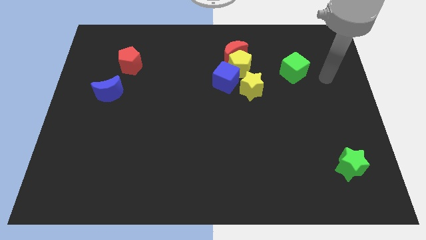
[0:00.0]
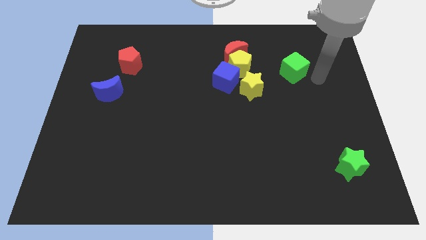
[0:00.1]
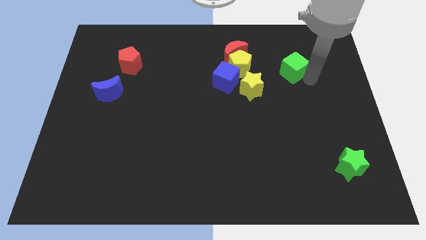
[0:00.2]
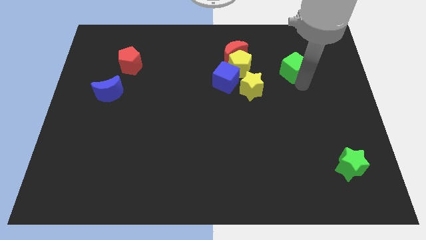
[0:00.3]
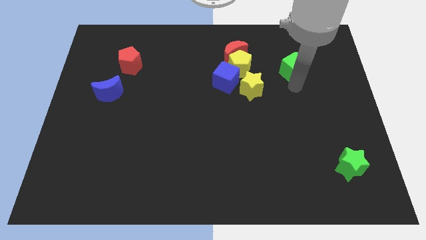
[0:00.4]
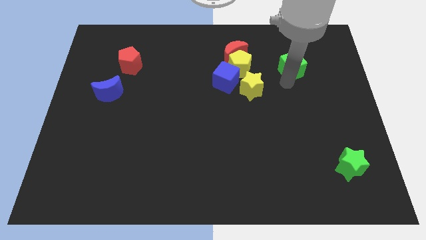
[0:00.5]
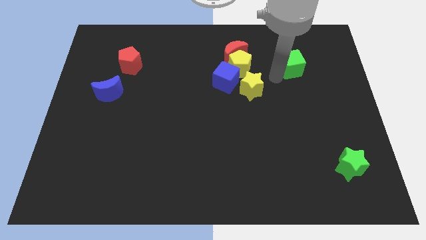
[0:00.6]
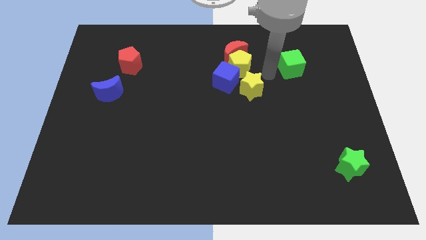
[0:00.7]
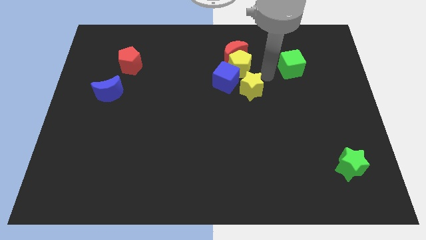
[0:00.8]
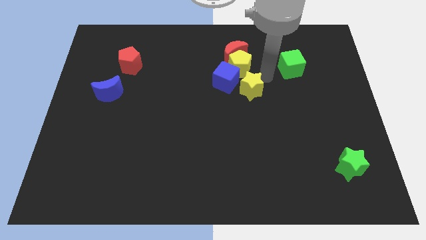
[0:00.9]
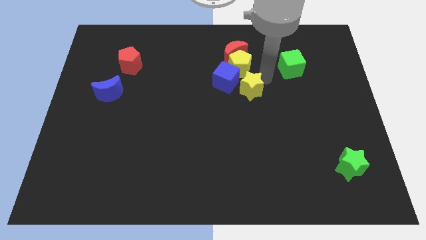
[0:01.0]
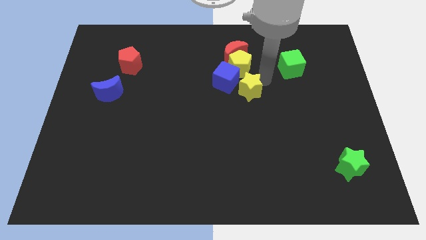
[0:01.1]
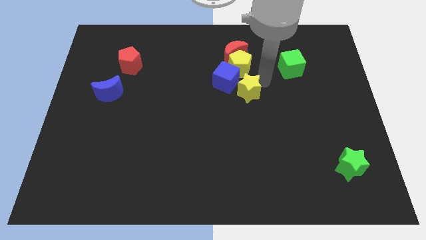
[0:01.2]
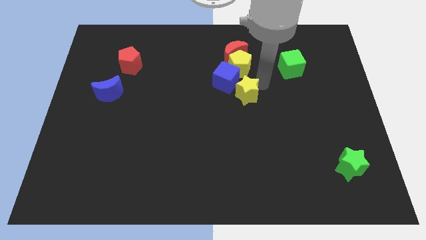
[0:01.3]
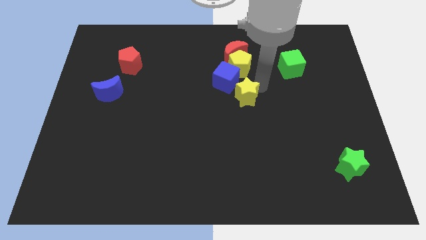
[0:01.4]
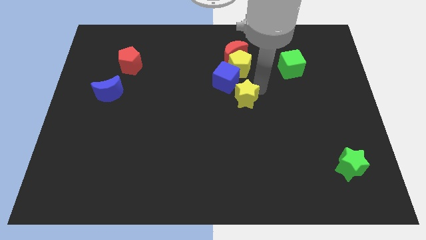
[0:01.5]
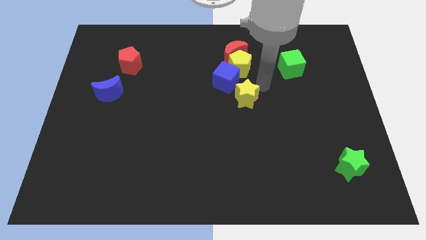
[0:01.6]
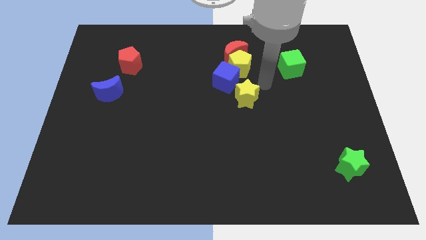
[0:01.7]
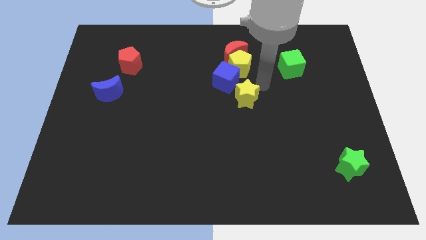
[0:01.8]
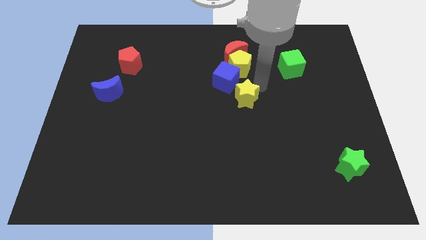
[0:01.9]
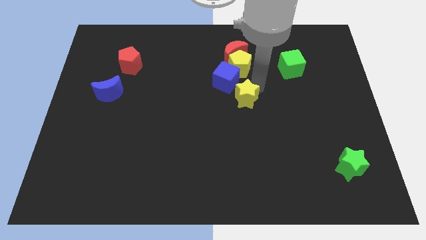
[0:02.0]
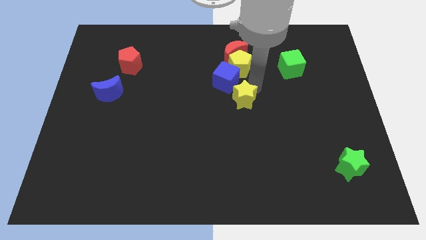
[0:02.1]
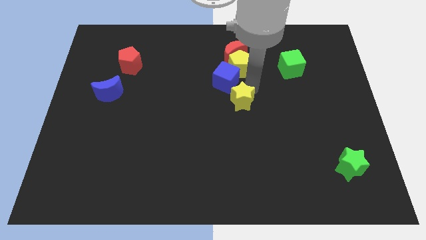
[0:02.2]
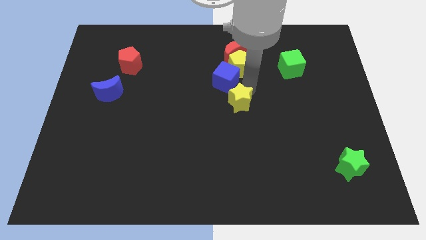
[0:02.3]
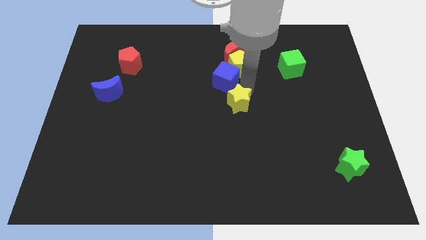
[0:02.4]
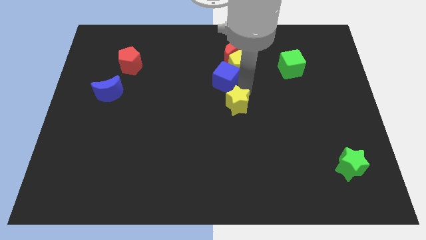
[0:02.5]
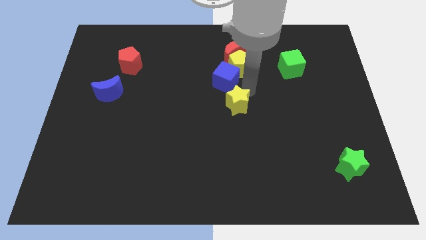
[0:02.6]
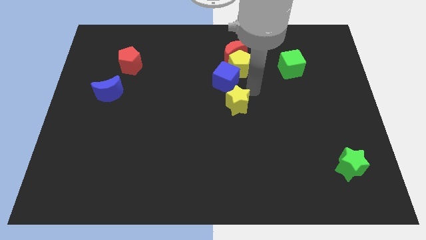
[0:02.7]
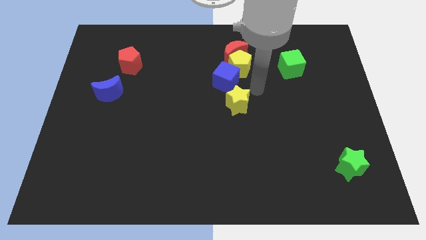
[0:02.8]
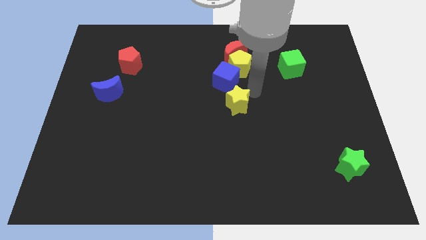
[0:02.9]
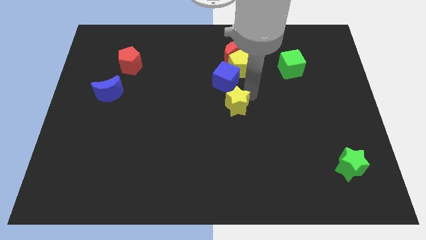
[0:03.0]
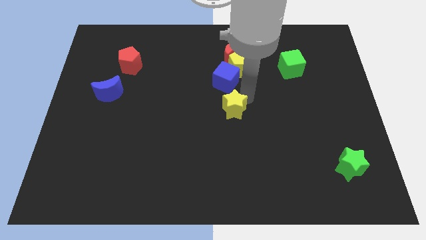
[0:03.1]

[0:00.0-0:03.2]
slide the yellow star a little bit diagonally down and left

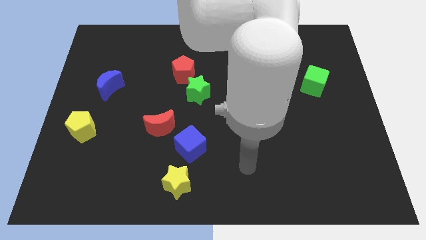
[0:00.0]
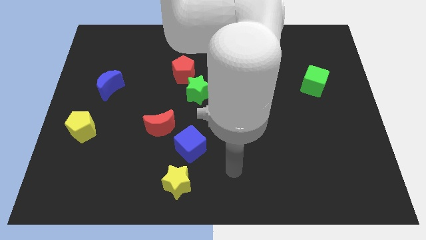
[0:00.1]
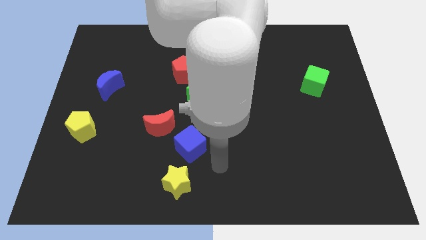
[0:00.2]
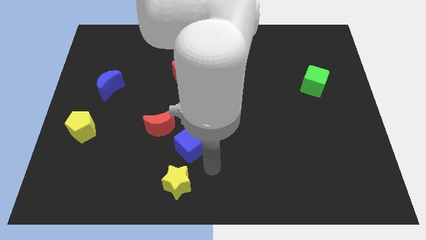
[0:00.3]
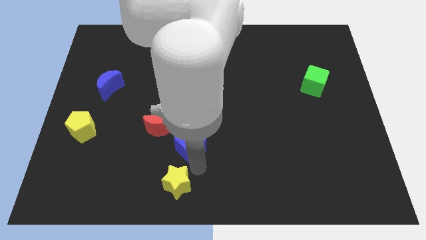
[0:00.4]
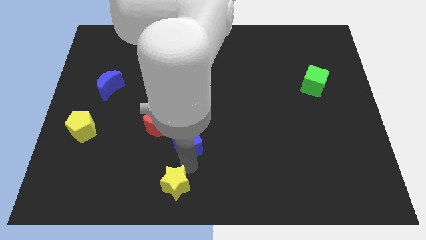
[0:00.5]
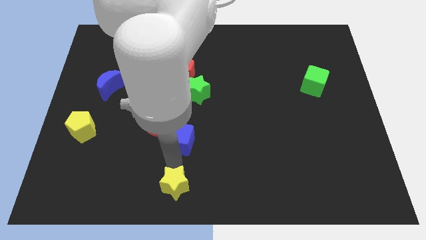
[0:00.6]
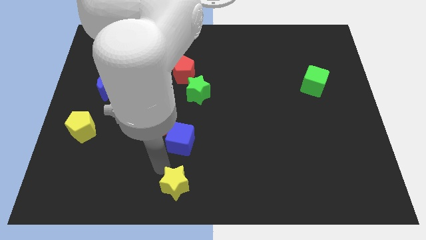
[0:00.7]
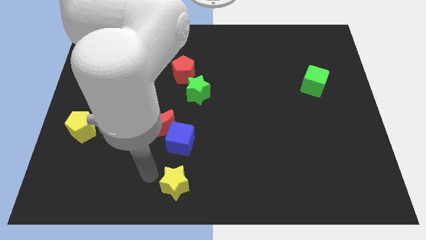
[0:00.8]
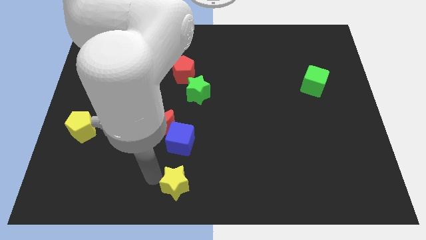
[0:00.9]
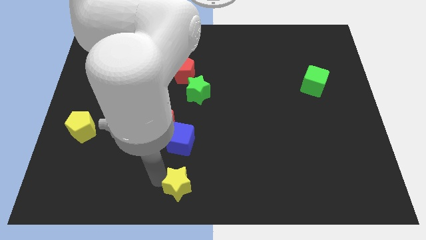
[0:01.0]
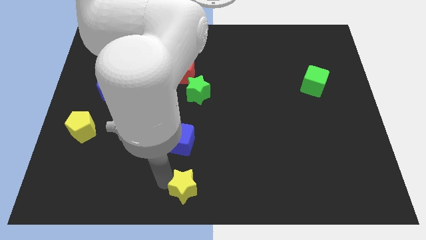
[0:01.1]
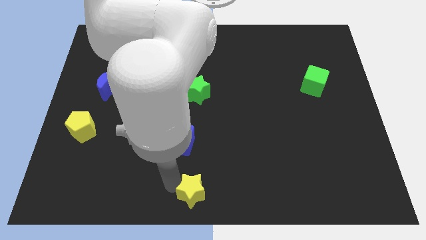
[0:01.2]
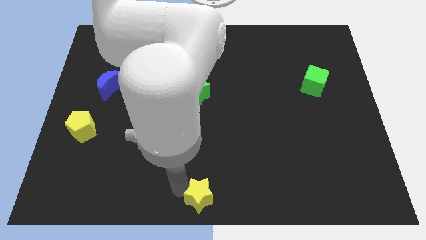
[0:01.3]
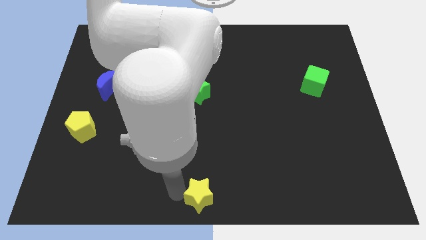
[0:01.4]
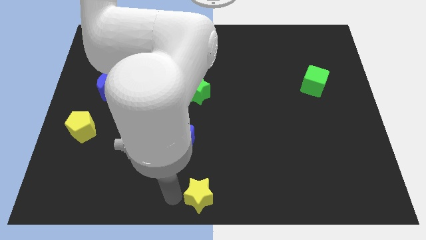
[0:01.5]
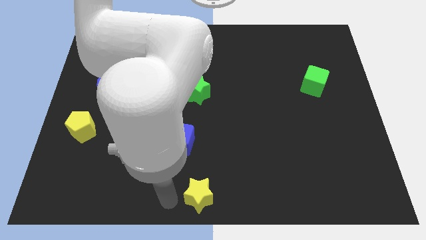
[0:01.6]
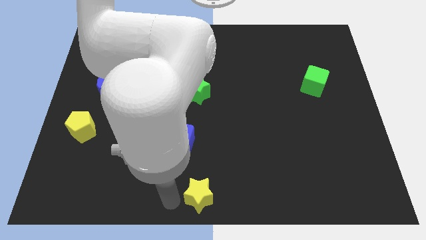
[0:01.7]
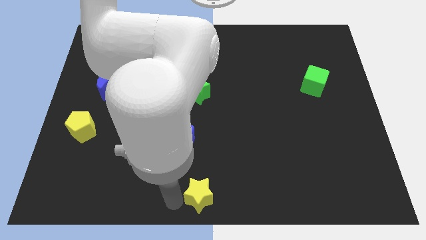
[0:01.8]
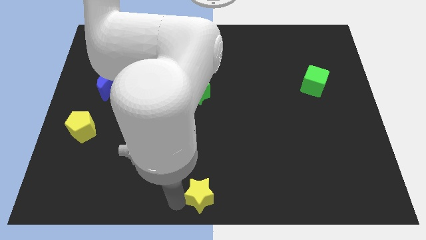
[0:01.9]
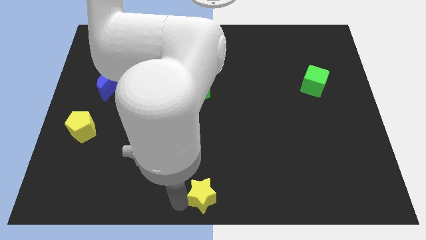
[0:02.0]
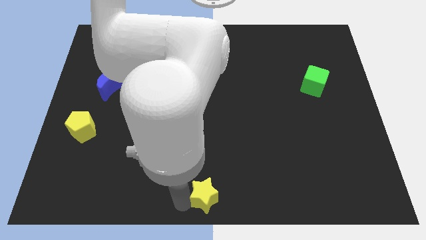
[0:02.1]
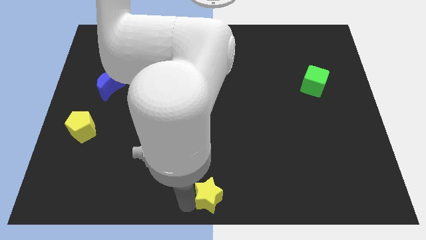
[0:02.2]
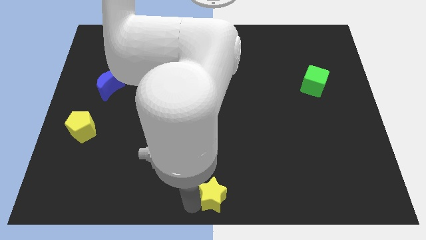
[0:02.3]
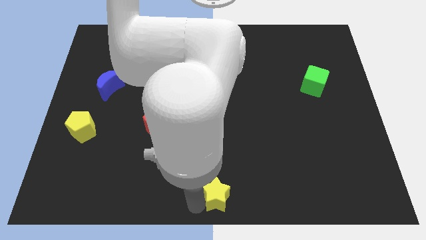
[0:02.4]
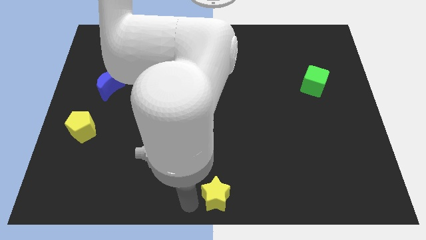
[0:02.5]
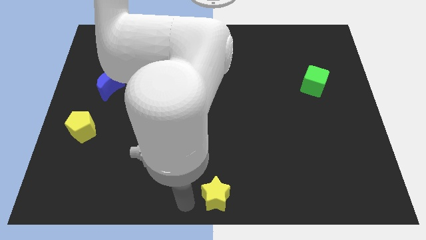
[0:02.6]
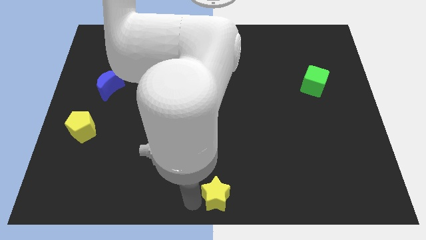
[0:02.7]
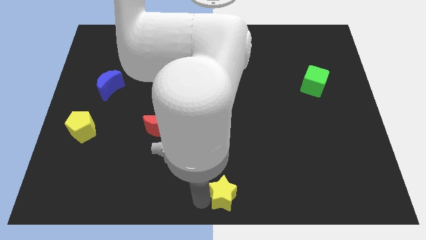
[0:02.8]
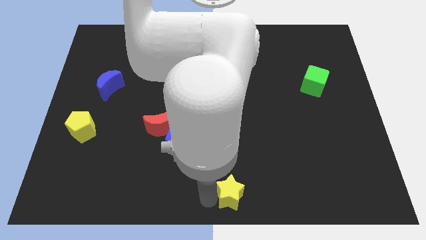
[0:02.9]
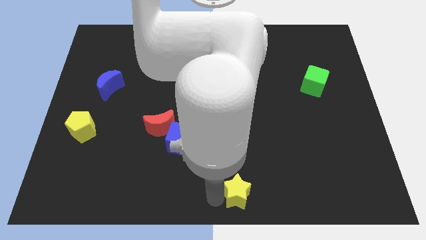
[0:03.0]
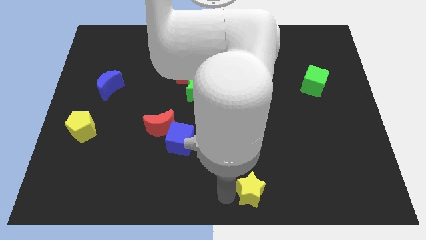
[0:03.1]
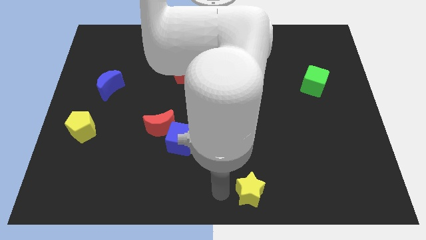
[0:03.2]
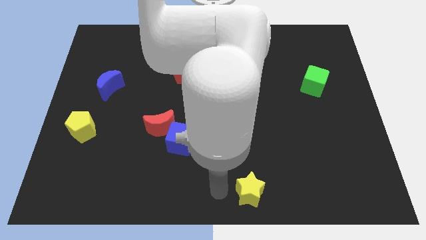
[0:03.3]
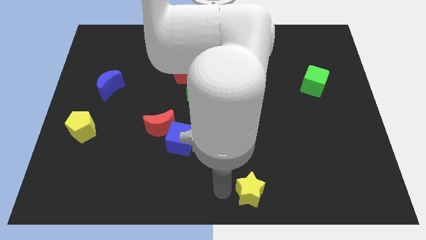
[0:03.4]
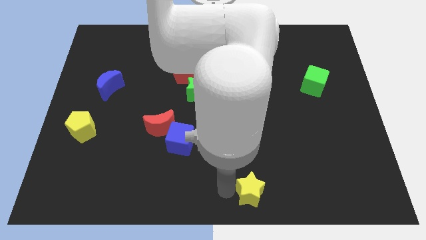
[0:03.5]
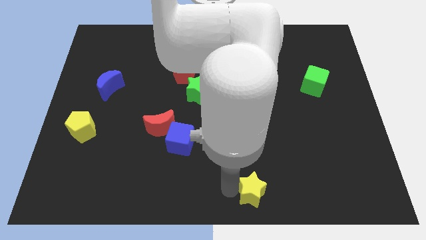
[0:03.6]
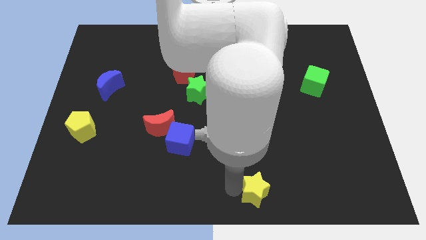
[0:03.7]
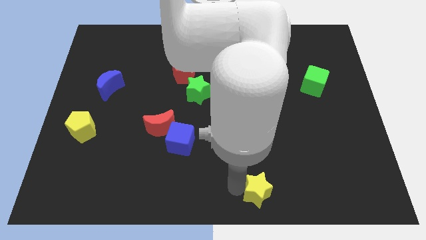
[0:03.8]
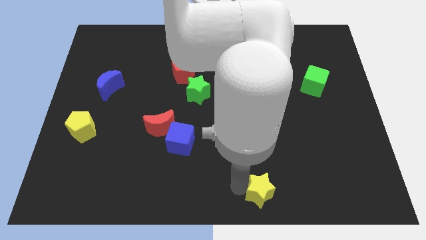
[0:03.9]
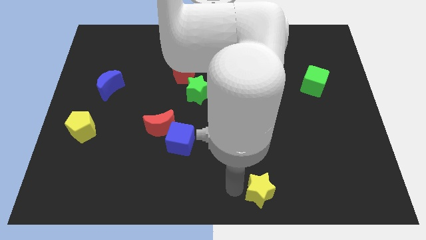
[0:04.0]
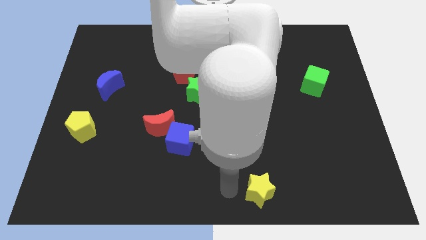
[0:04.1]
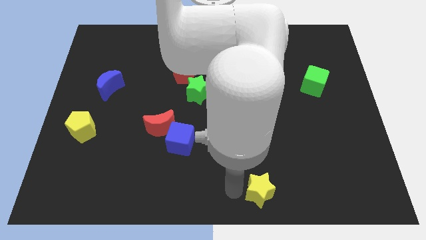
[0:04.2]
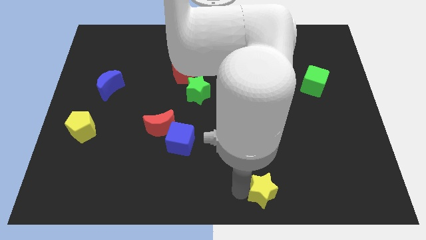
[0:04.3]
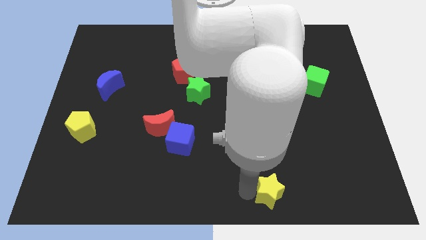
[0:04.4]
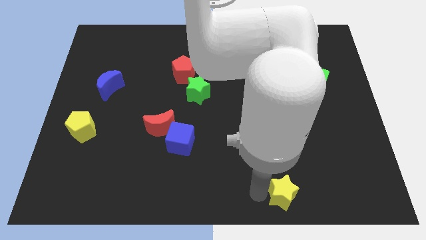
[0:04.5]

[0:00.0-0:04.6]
push the yellow star right

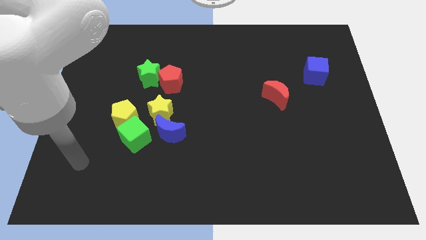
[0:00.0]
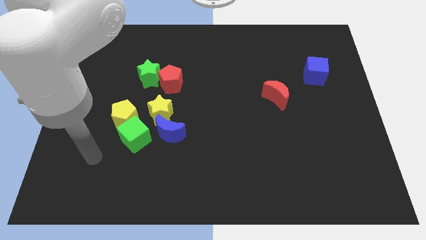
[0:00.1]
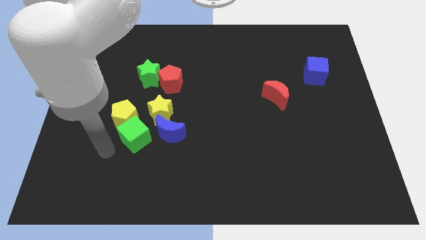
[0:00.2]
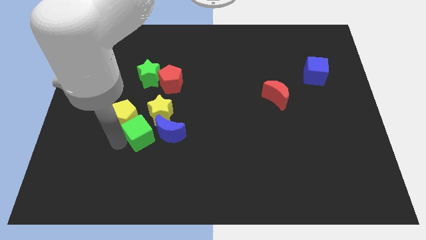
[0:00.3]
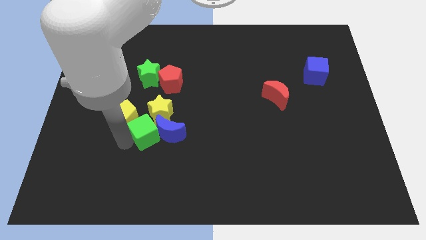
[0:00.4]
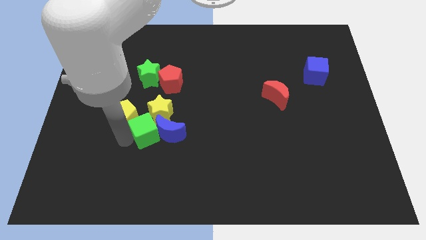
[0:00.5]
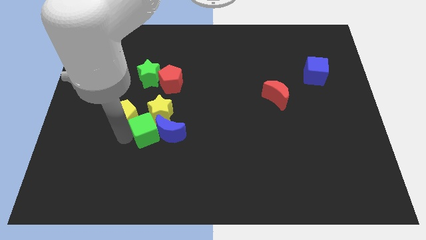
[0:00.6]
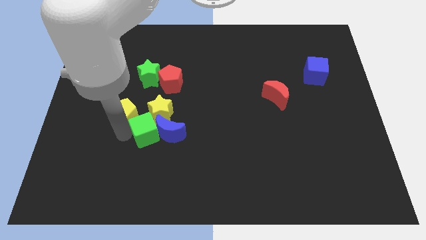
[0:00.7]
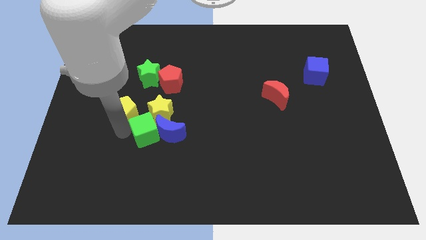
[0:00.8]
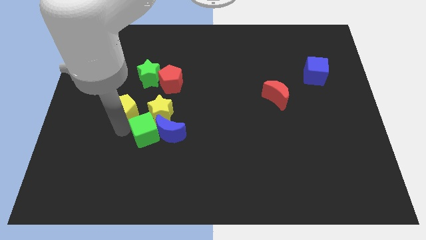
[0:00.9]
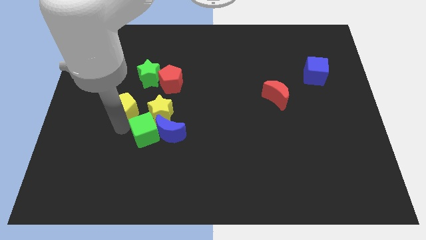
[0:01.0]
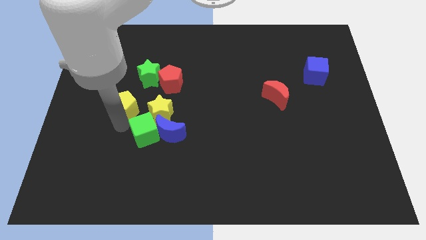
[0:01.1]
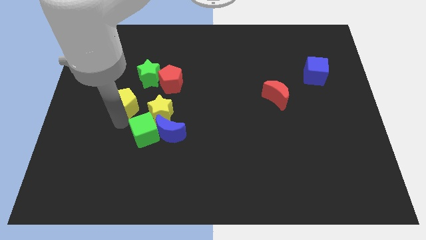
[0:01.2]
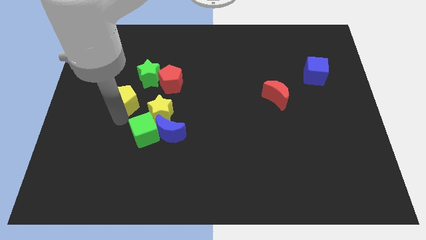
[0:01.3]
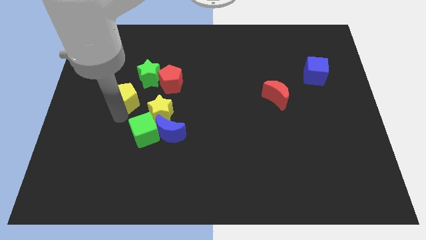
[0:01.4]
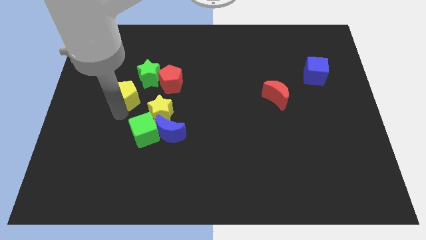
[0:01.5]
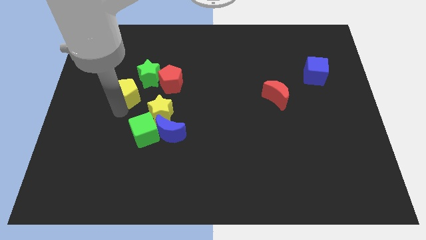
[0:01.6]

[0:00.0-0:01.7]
slightly push the yellow pentagon up
